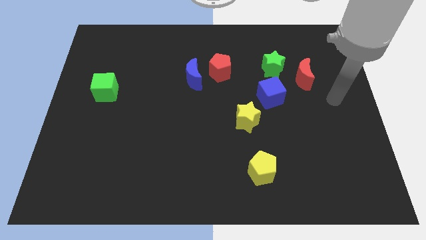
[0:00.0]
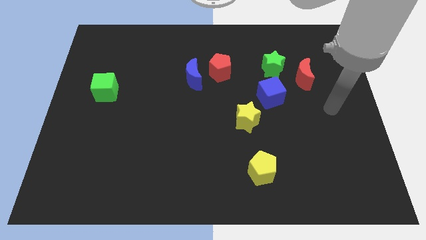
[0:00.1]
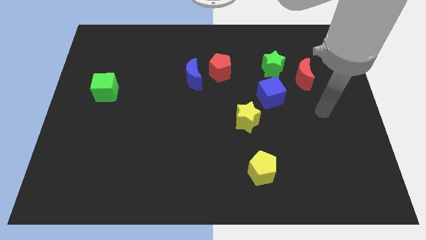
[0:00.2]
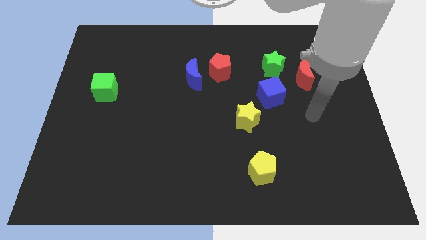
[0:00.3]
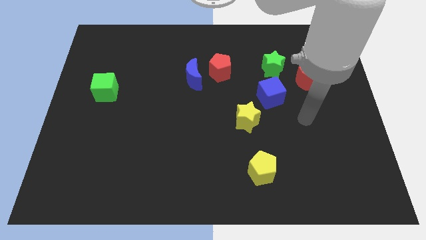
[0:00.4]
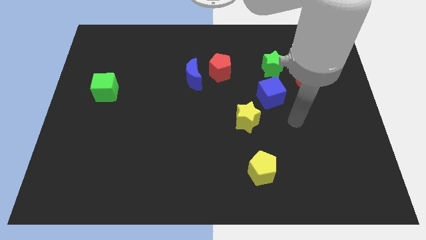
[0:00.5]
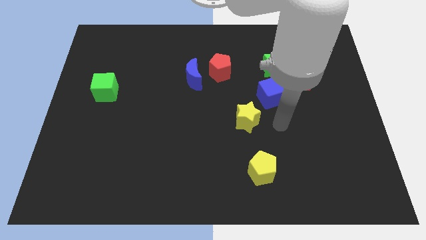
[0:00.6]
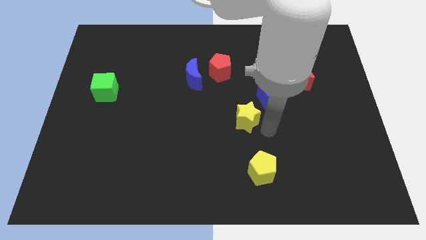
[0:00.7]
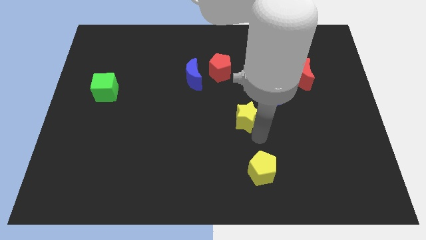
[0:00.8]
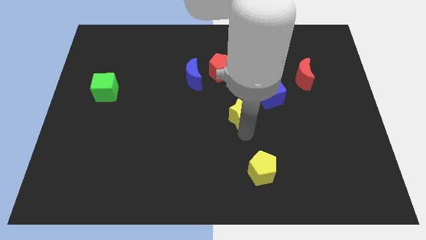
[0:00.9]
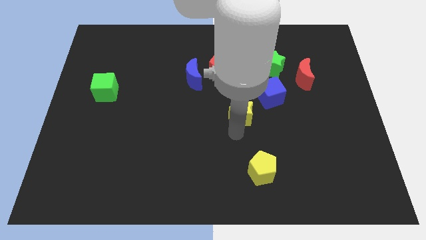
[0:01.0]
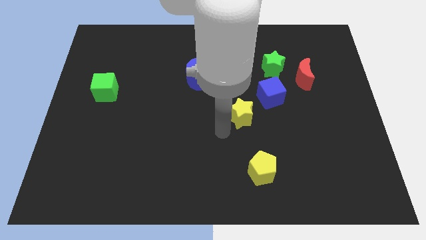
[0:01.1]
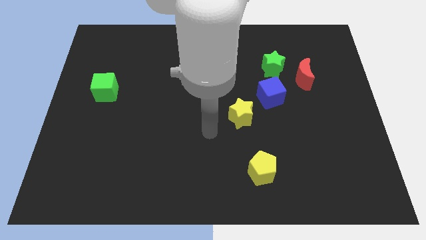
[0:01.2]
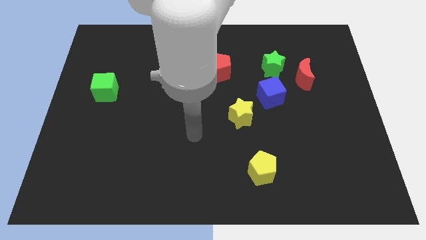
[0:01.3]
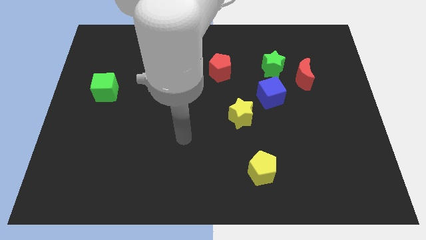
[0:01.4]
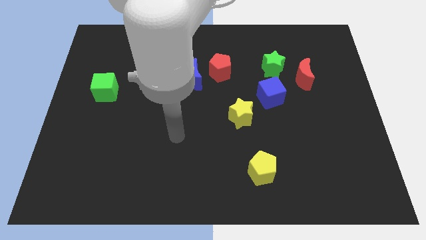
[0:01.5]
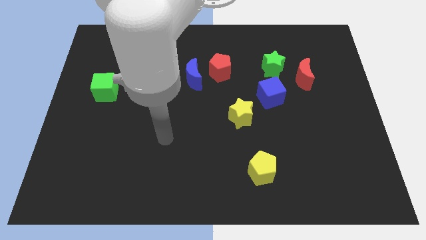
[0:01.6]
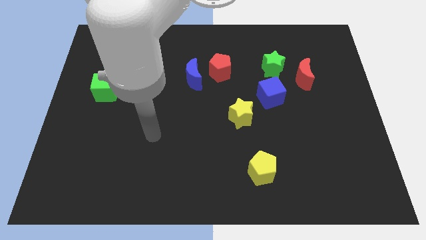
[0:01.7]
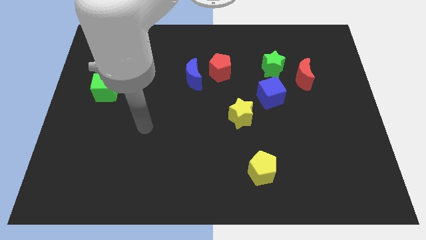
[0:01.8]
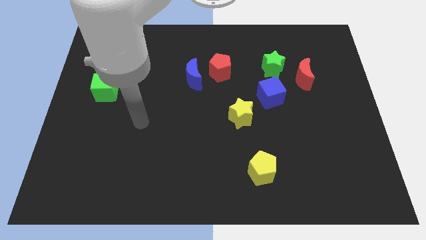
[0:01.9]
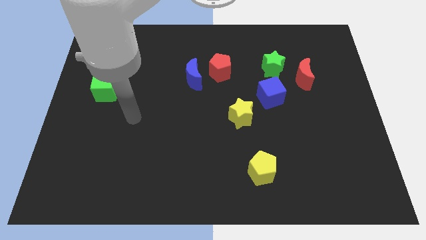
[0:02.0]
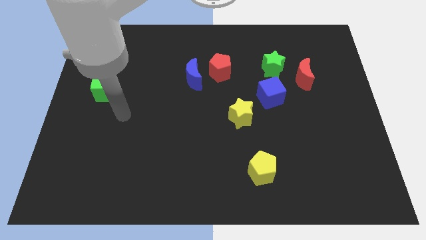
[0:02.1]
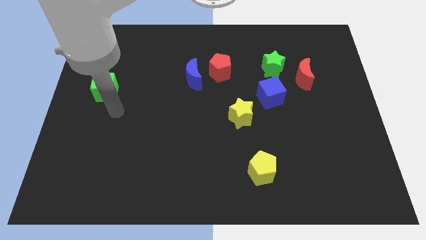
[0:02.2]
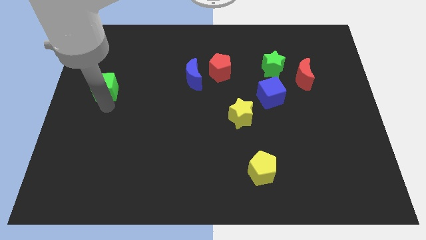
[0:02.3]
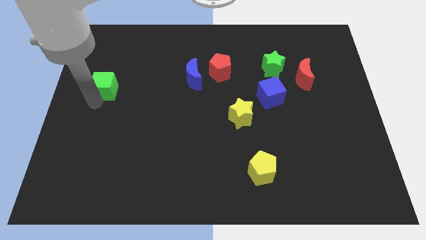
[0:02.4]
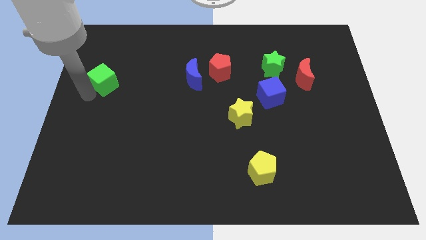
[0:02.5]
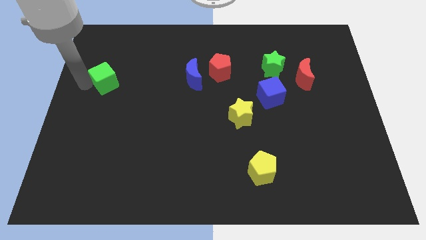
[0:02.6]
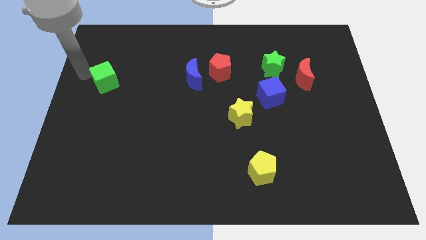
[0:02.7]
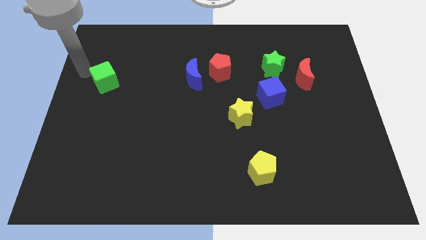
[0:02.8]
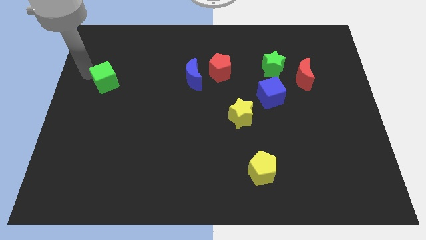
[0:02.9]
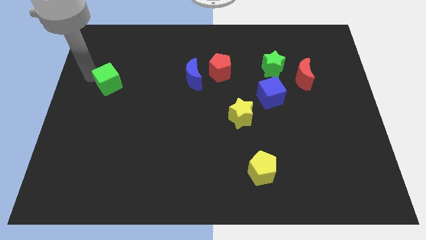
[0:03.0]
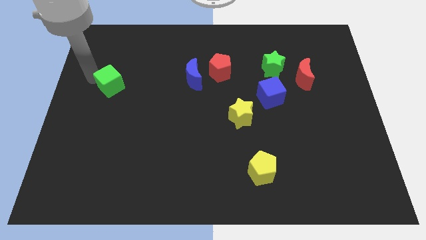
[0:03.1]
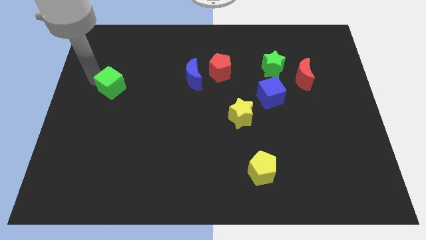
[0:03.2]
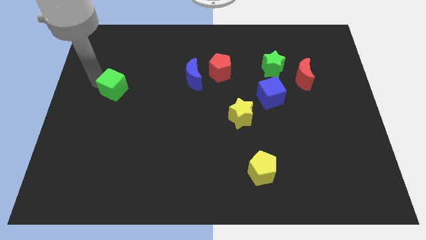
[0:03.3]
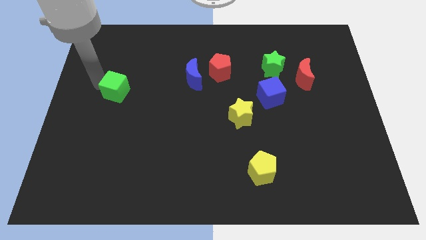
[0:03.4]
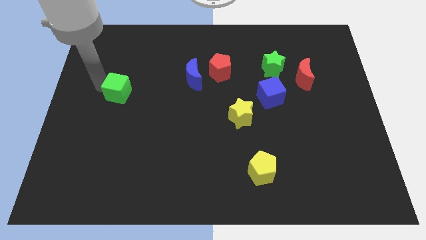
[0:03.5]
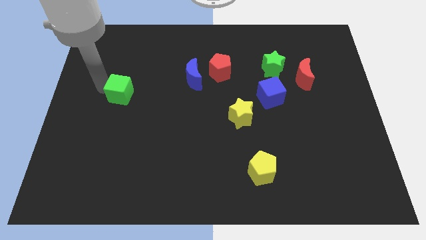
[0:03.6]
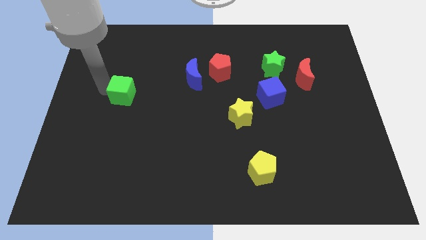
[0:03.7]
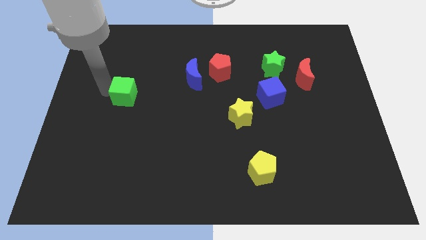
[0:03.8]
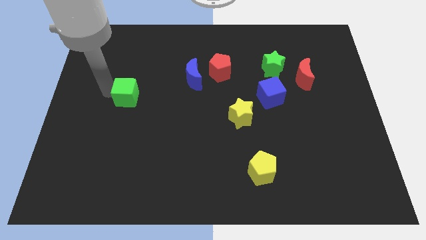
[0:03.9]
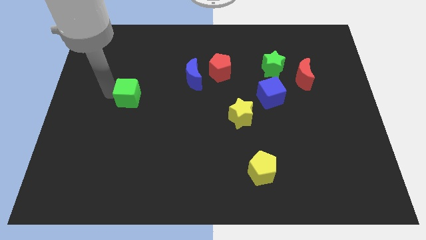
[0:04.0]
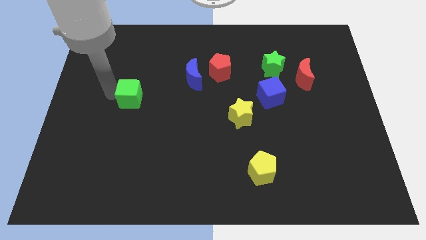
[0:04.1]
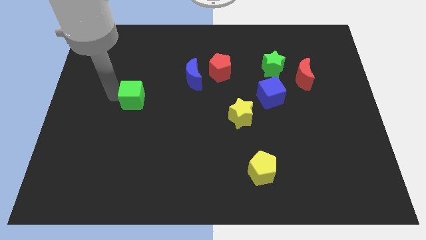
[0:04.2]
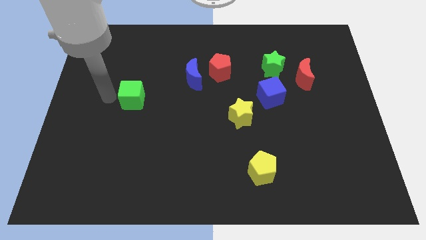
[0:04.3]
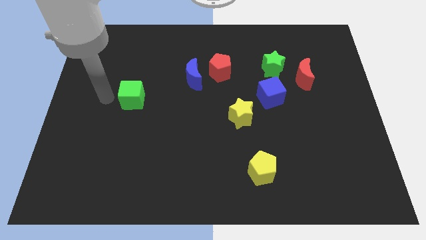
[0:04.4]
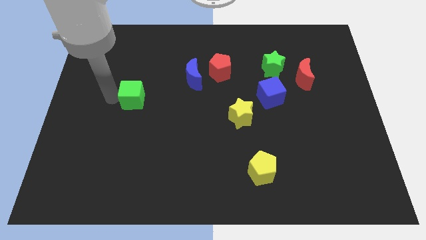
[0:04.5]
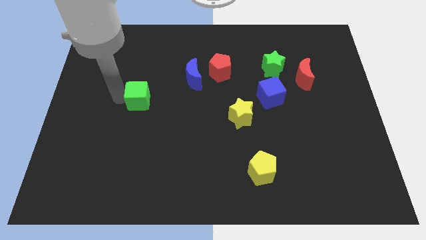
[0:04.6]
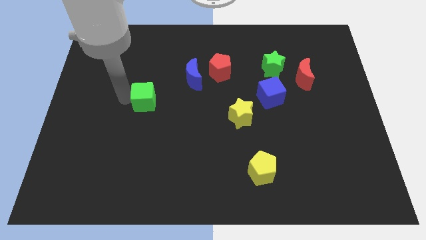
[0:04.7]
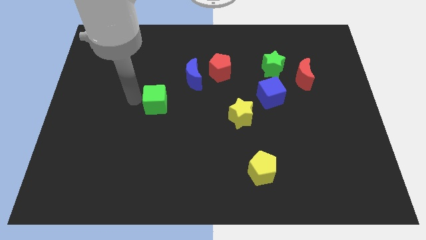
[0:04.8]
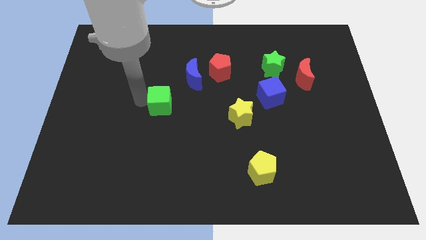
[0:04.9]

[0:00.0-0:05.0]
slide the green cube to the middle

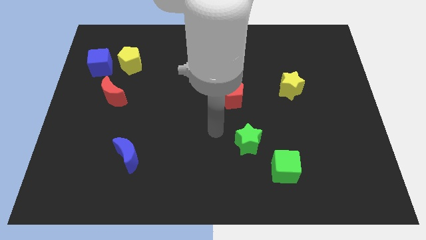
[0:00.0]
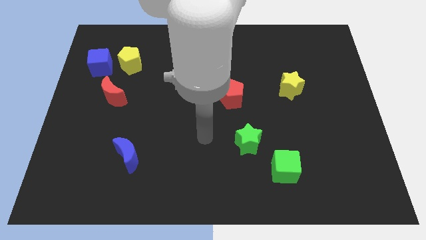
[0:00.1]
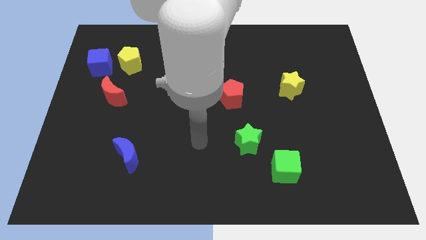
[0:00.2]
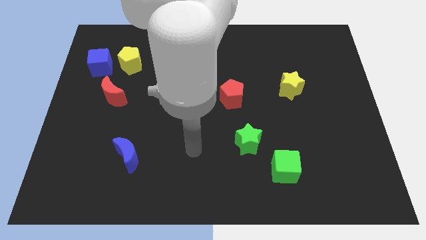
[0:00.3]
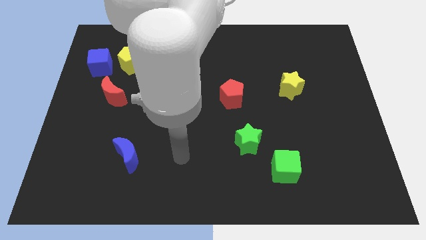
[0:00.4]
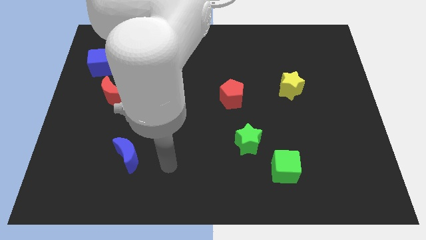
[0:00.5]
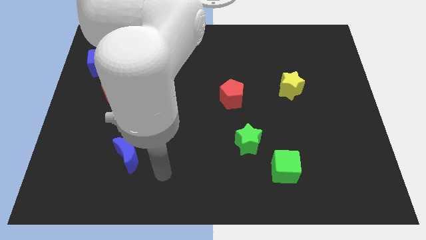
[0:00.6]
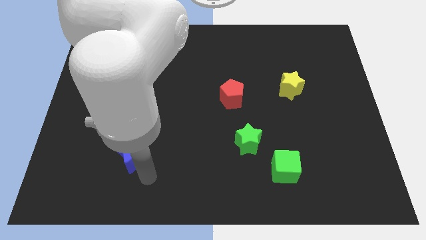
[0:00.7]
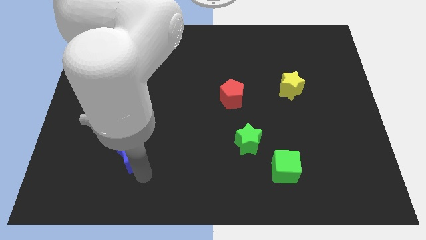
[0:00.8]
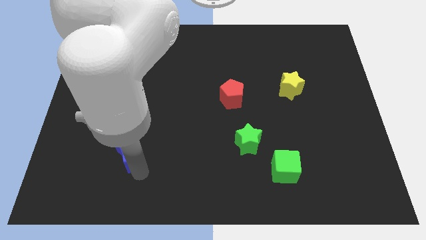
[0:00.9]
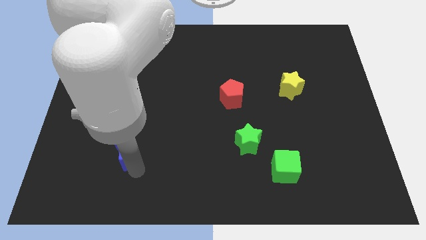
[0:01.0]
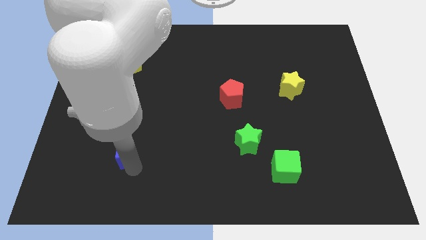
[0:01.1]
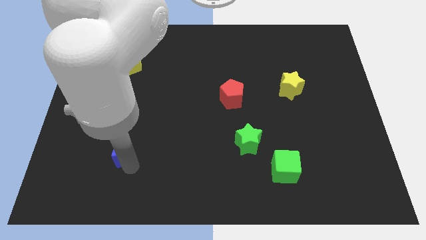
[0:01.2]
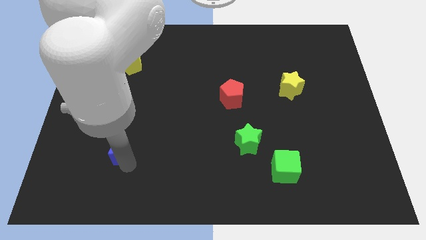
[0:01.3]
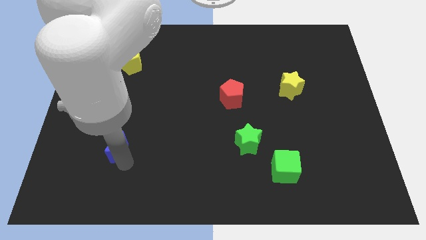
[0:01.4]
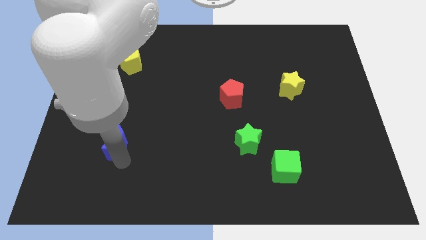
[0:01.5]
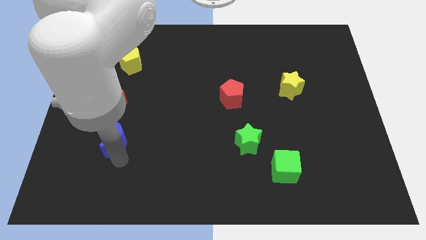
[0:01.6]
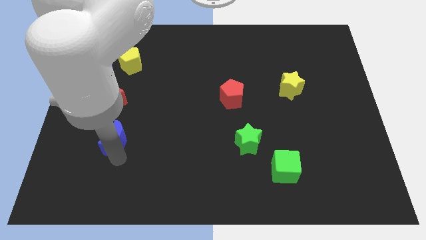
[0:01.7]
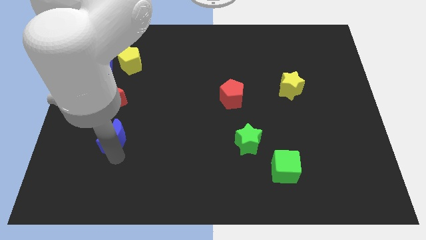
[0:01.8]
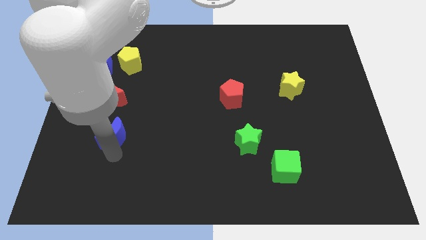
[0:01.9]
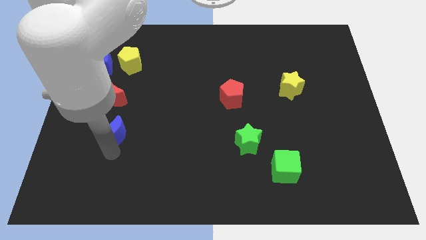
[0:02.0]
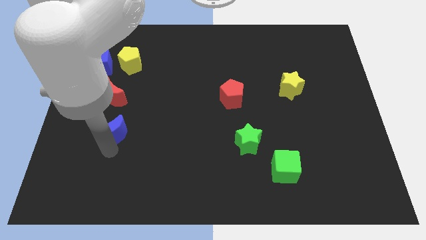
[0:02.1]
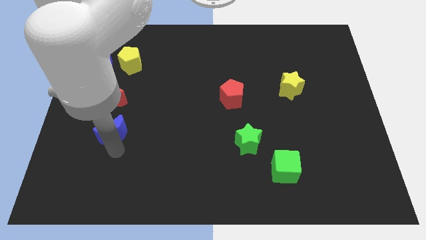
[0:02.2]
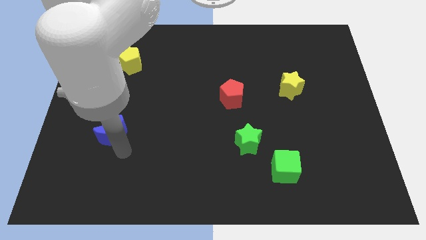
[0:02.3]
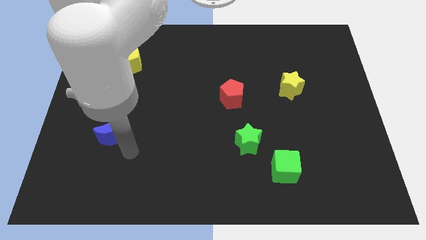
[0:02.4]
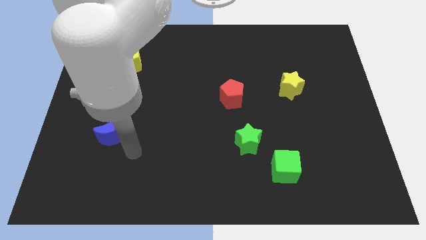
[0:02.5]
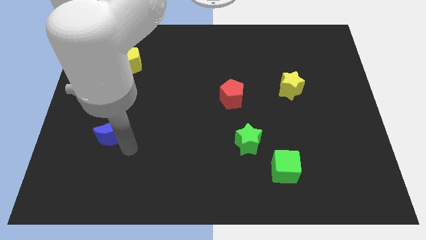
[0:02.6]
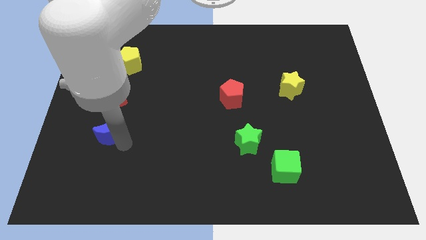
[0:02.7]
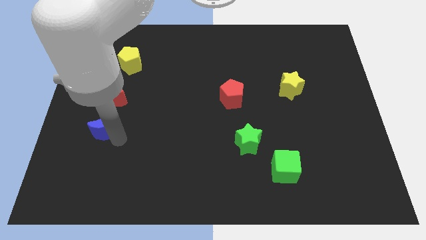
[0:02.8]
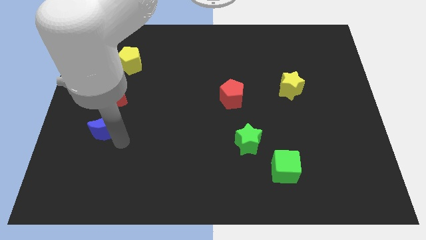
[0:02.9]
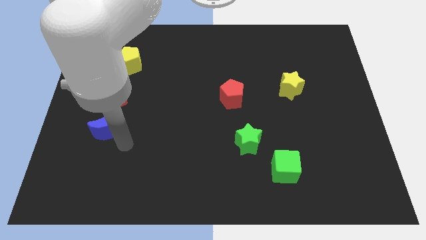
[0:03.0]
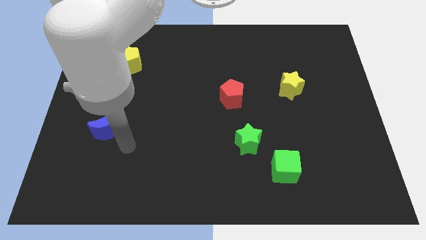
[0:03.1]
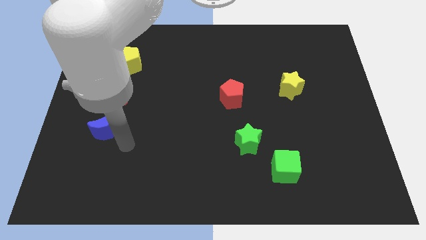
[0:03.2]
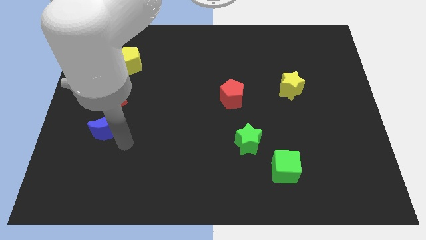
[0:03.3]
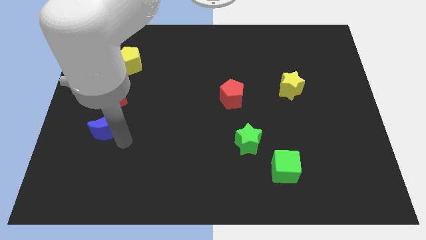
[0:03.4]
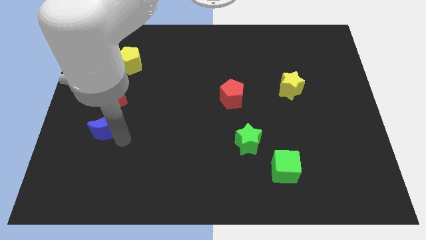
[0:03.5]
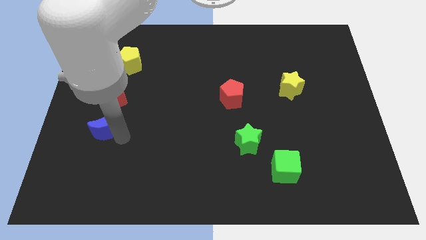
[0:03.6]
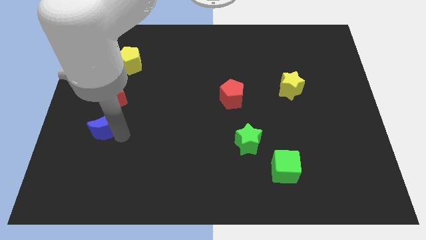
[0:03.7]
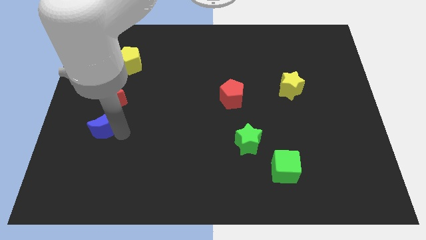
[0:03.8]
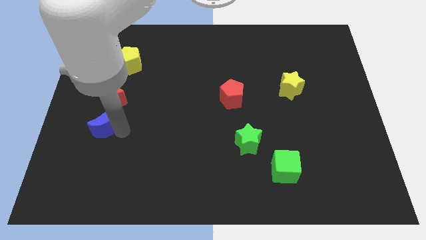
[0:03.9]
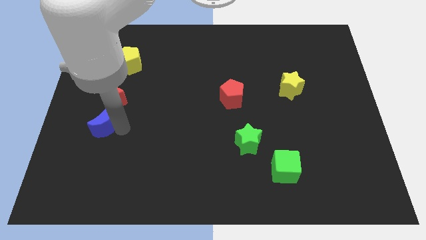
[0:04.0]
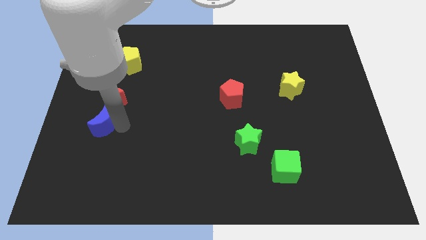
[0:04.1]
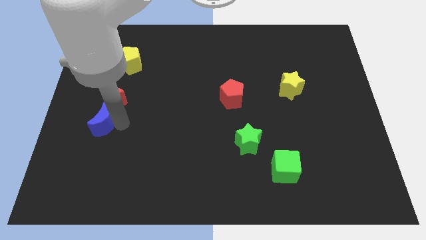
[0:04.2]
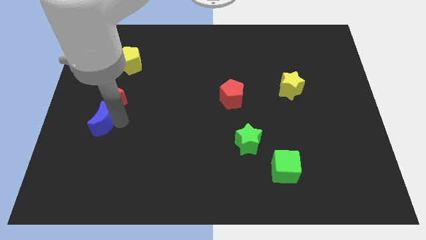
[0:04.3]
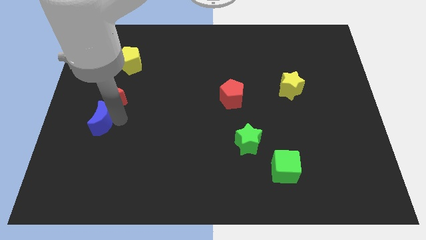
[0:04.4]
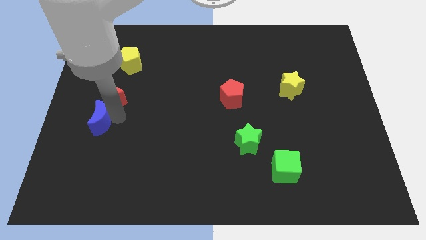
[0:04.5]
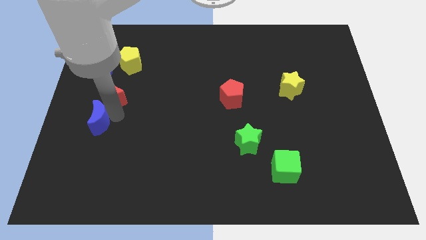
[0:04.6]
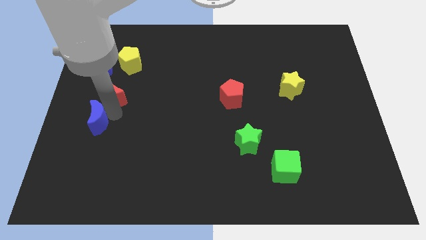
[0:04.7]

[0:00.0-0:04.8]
slide the blue moon to the center left
